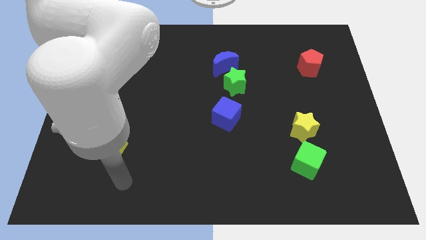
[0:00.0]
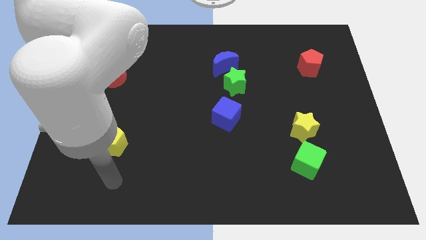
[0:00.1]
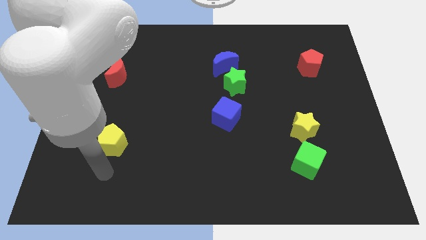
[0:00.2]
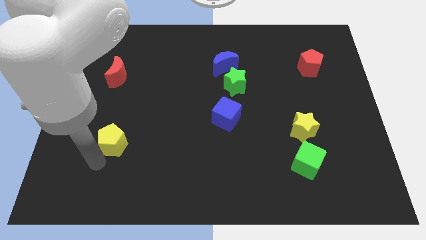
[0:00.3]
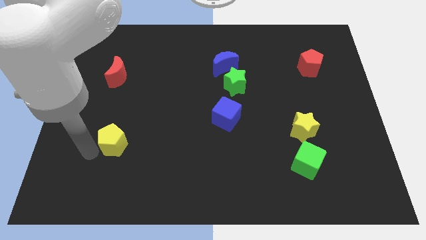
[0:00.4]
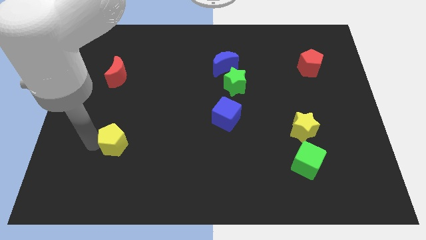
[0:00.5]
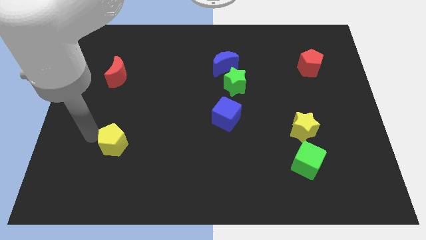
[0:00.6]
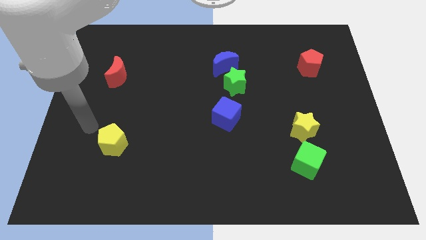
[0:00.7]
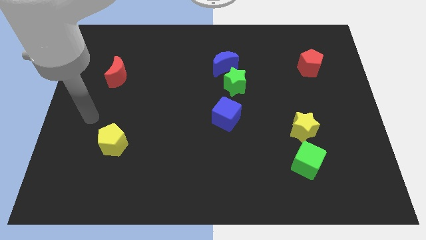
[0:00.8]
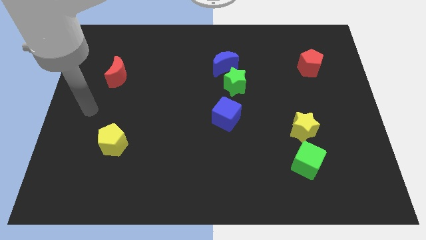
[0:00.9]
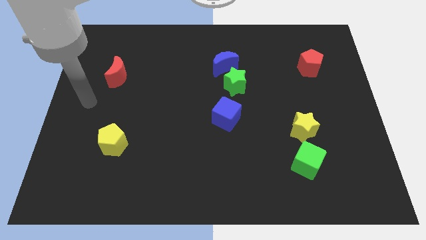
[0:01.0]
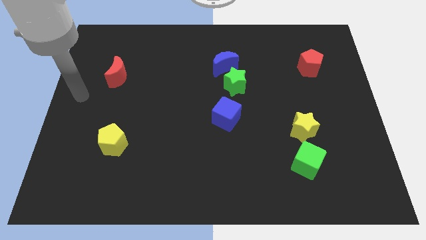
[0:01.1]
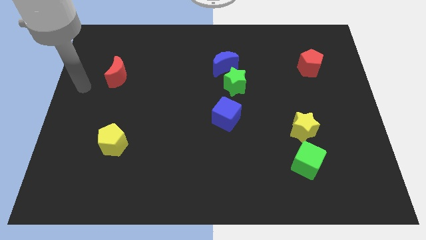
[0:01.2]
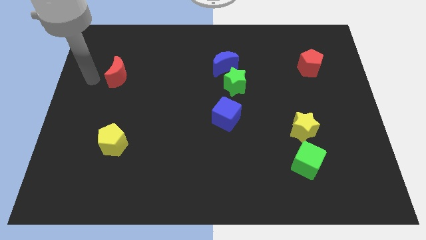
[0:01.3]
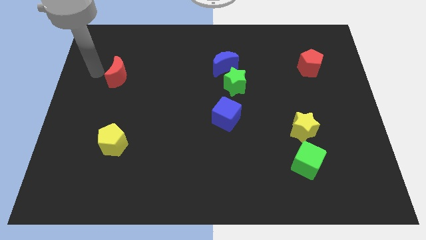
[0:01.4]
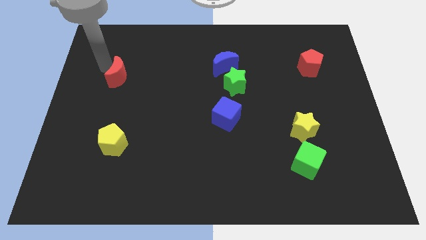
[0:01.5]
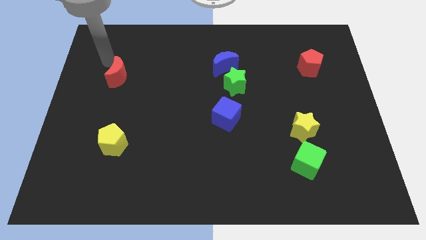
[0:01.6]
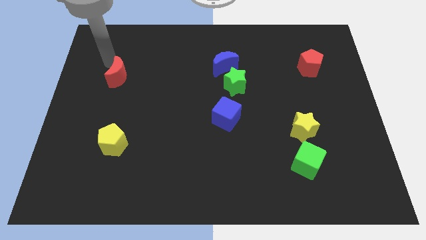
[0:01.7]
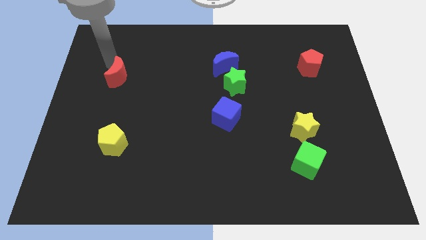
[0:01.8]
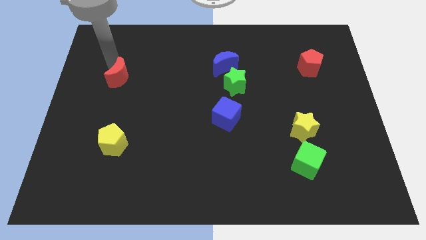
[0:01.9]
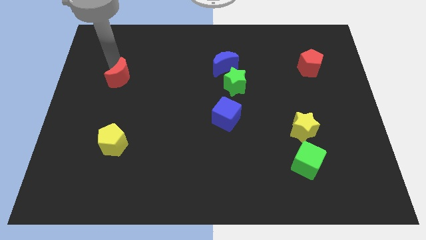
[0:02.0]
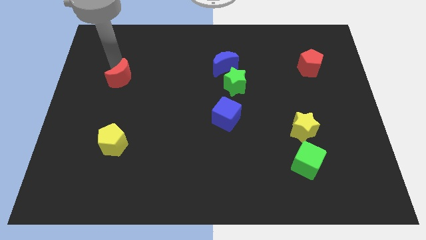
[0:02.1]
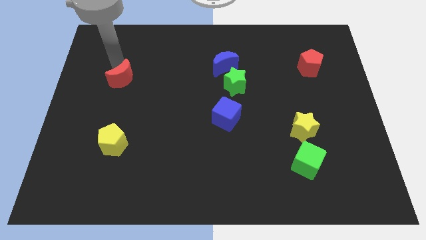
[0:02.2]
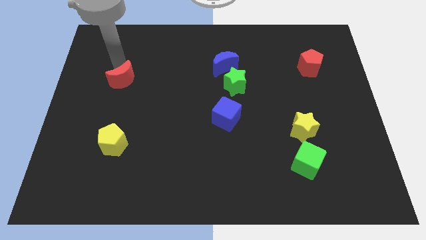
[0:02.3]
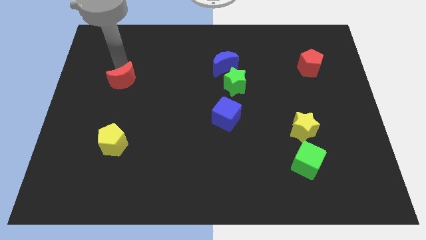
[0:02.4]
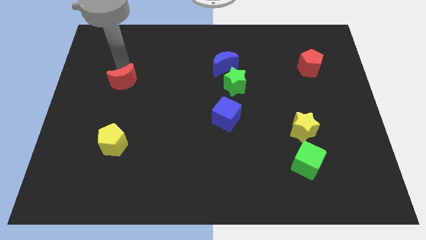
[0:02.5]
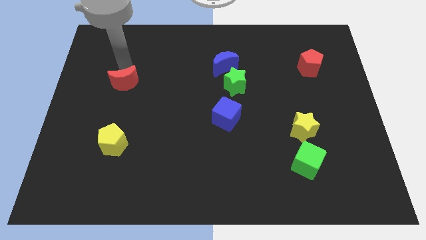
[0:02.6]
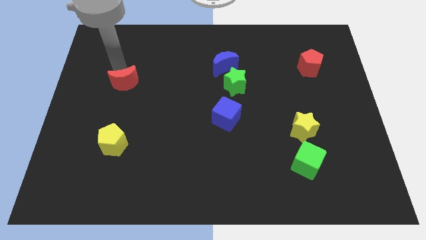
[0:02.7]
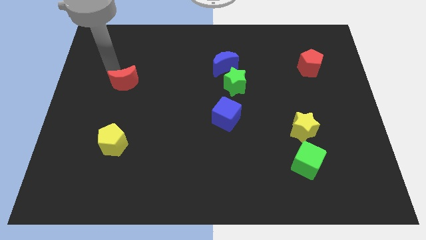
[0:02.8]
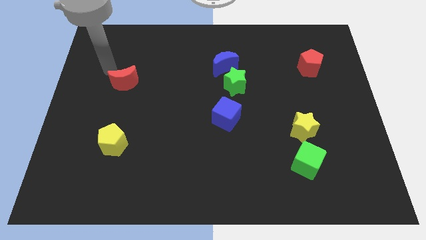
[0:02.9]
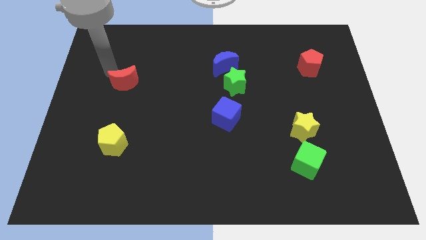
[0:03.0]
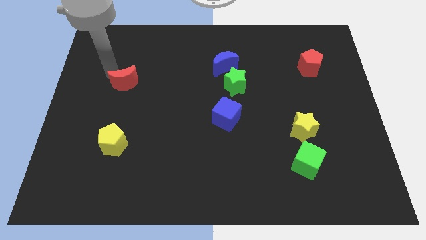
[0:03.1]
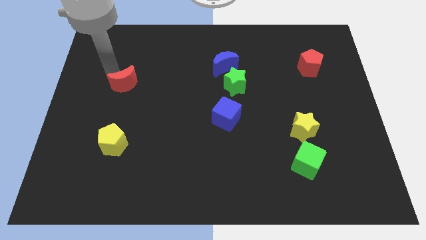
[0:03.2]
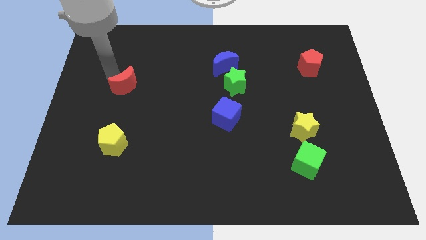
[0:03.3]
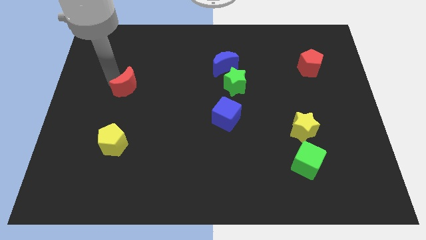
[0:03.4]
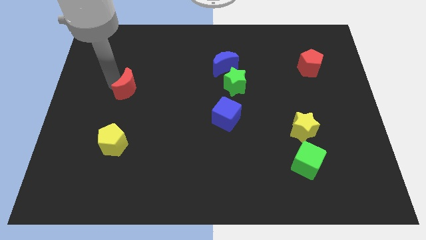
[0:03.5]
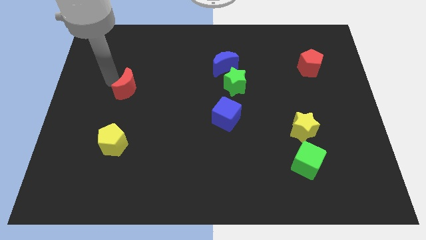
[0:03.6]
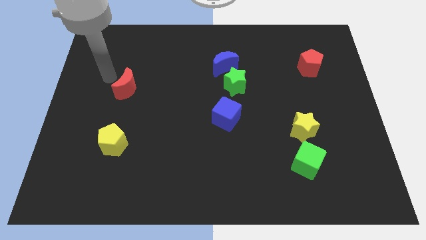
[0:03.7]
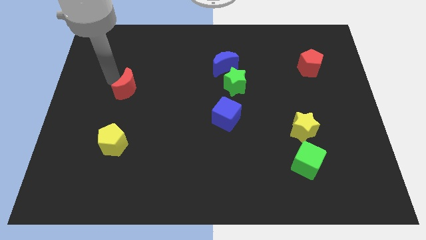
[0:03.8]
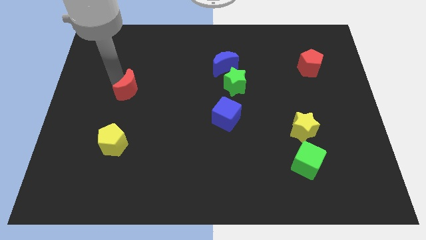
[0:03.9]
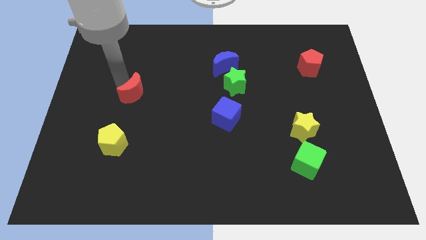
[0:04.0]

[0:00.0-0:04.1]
slightly slide the red moon down and then to the right

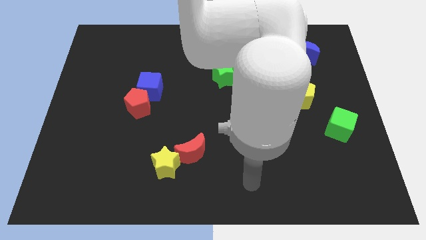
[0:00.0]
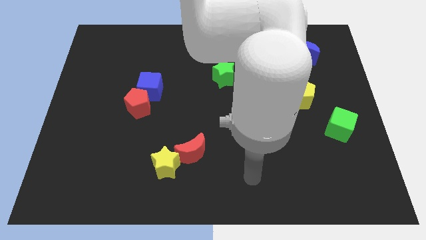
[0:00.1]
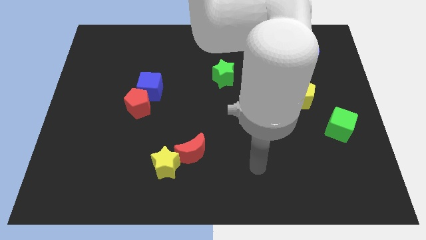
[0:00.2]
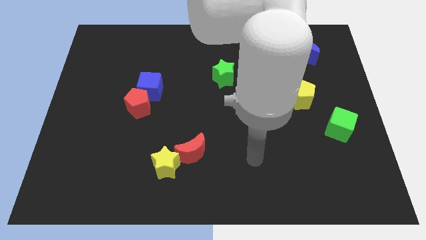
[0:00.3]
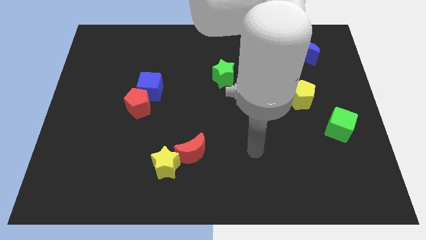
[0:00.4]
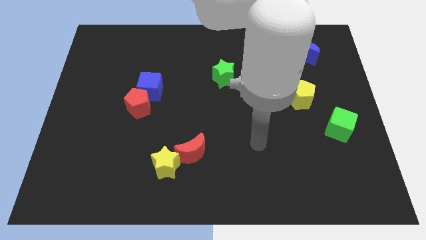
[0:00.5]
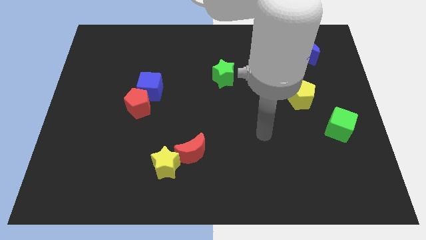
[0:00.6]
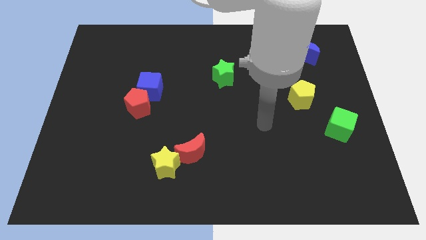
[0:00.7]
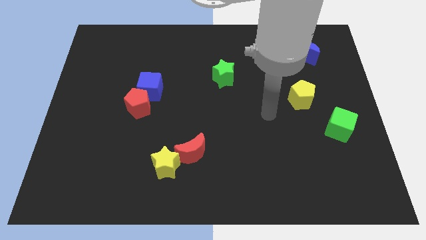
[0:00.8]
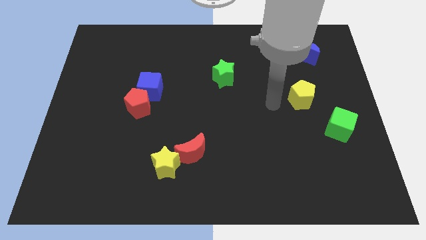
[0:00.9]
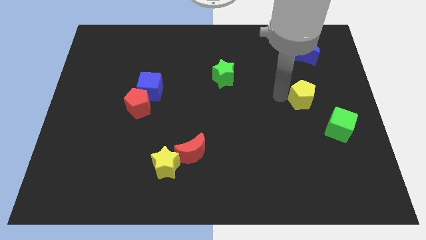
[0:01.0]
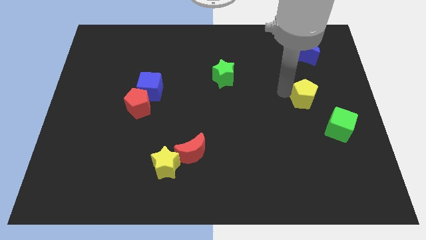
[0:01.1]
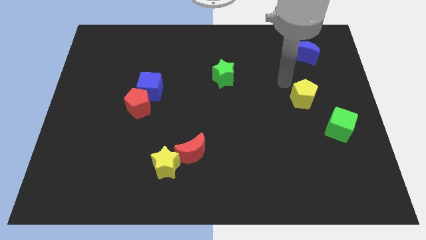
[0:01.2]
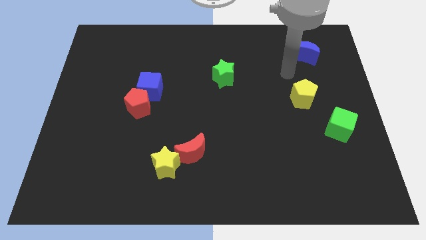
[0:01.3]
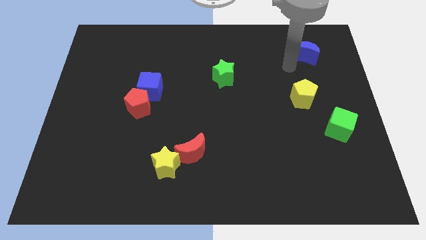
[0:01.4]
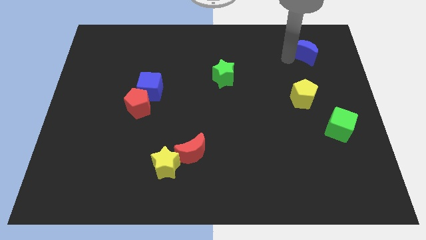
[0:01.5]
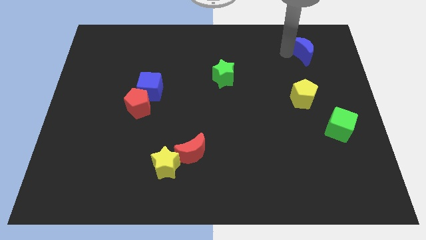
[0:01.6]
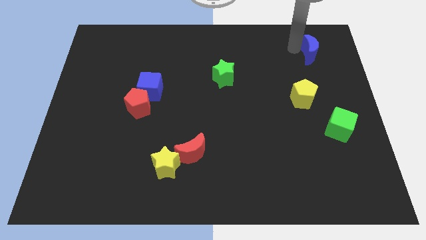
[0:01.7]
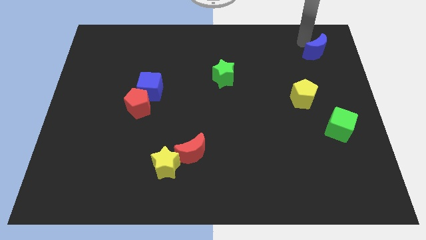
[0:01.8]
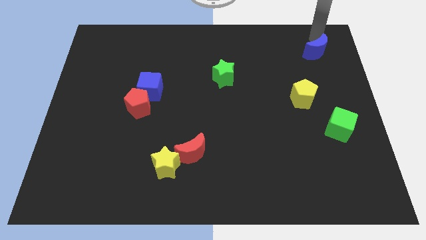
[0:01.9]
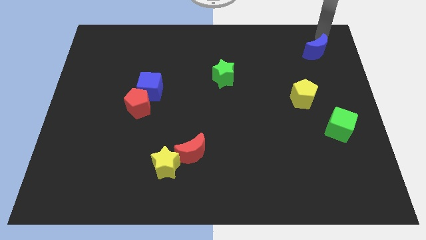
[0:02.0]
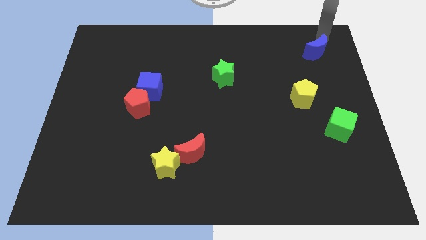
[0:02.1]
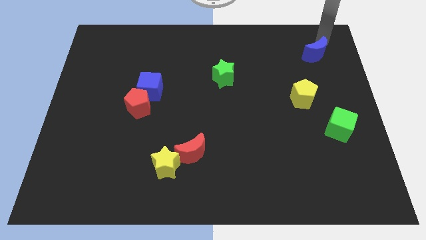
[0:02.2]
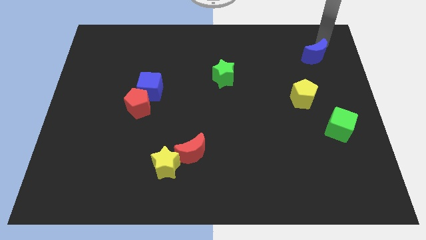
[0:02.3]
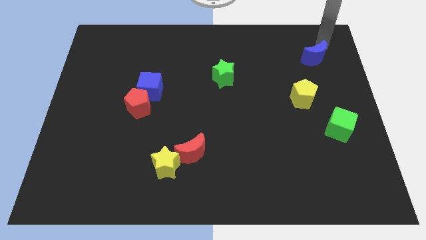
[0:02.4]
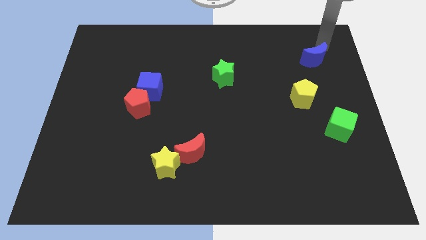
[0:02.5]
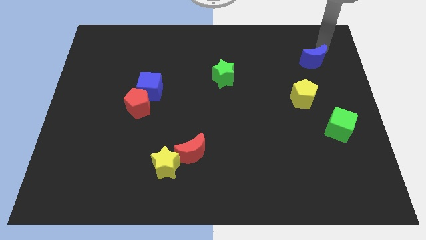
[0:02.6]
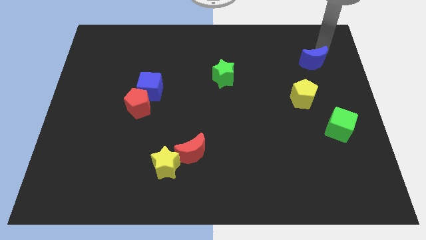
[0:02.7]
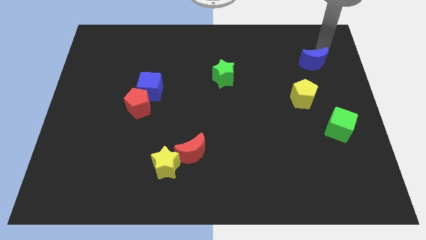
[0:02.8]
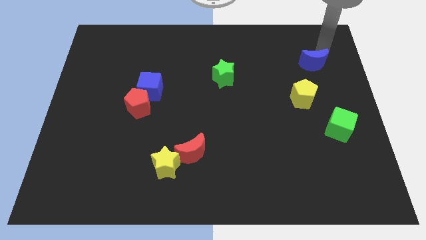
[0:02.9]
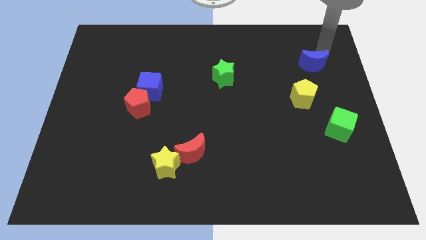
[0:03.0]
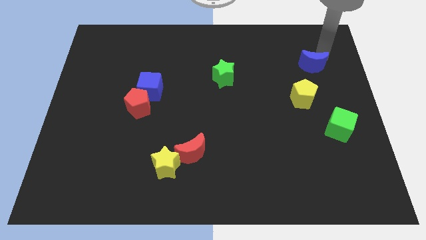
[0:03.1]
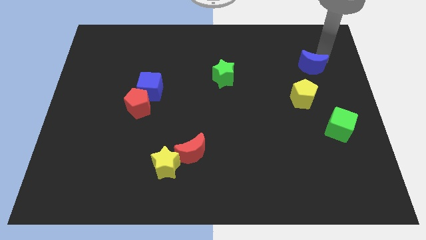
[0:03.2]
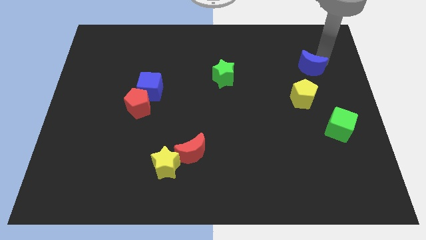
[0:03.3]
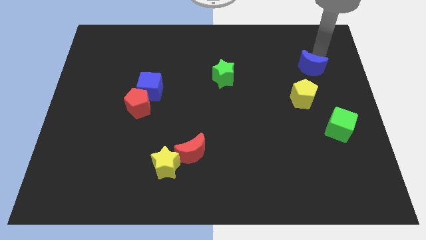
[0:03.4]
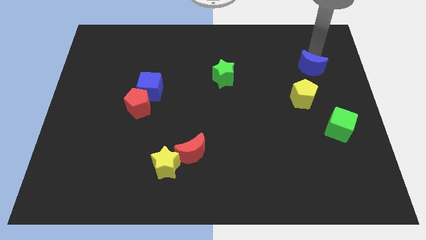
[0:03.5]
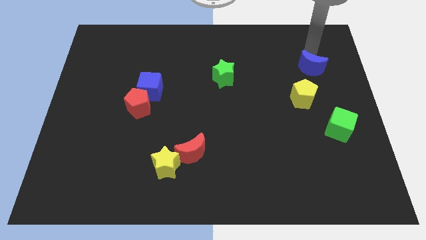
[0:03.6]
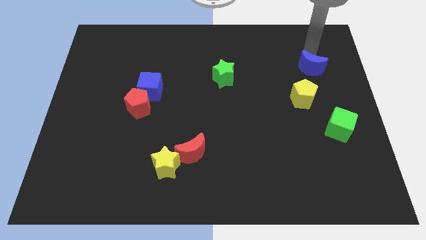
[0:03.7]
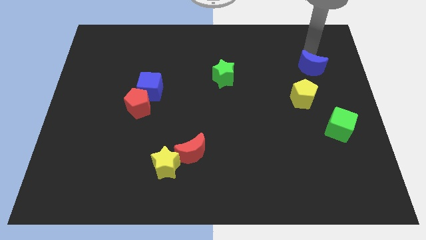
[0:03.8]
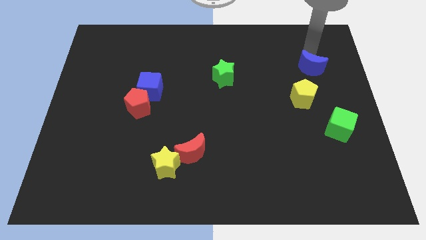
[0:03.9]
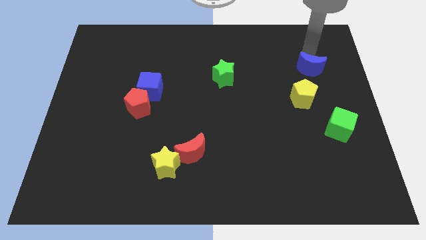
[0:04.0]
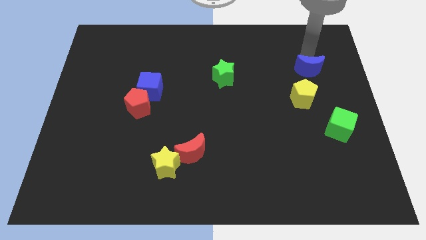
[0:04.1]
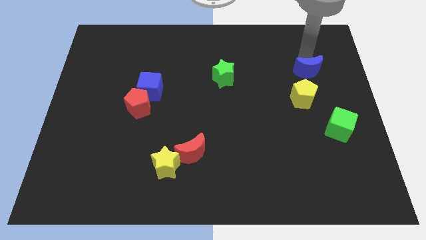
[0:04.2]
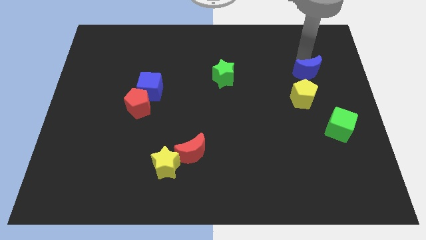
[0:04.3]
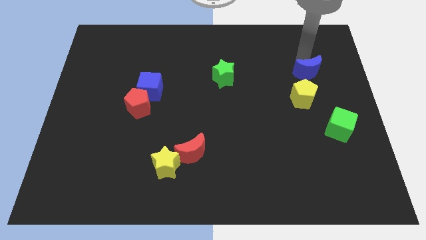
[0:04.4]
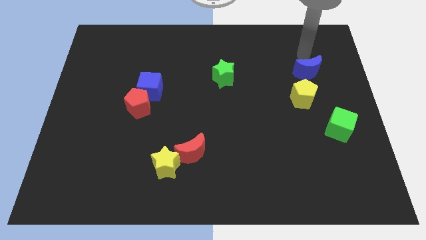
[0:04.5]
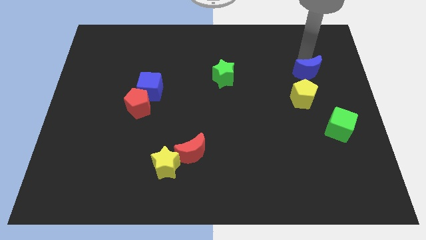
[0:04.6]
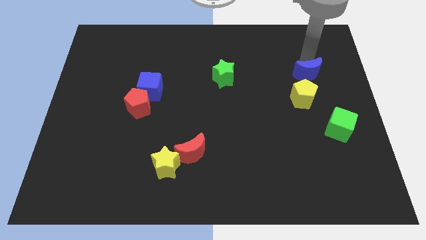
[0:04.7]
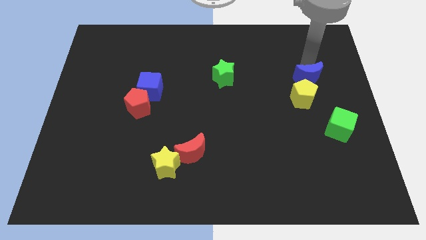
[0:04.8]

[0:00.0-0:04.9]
slightly push the blue moon down
